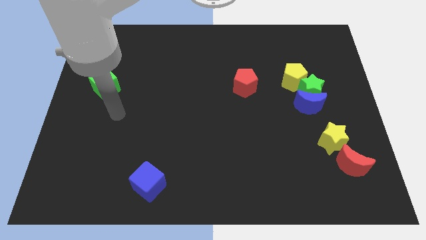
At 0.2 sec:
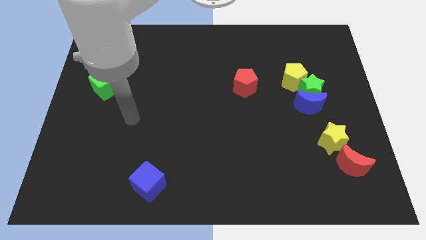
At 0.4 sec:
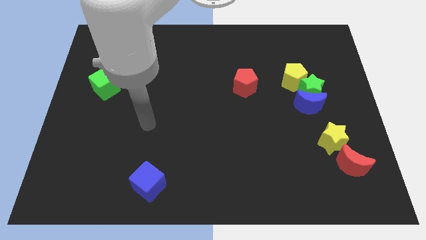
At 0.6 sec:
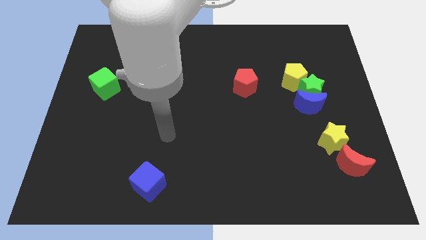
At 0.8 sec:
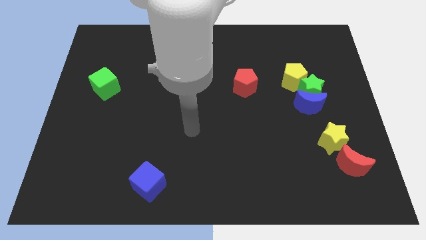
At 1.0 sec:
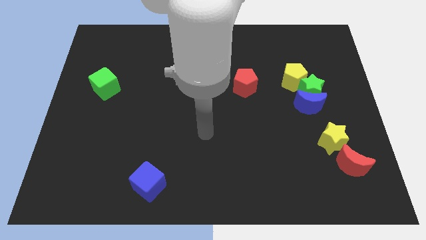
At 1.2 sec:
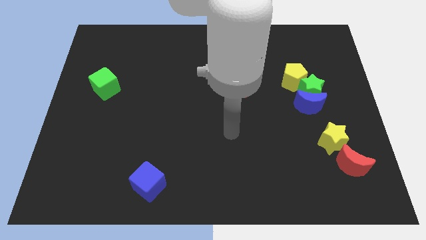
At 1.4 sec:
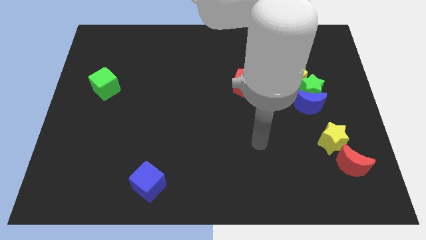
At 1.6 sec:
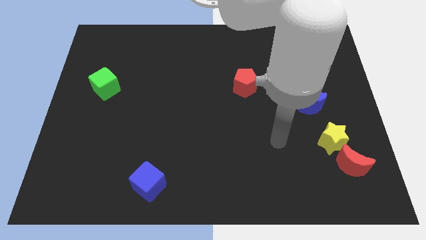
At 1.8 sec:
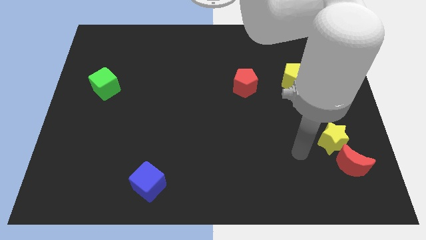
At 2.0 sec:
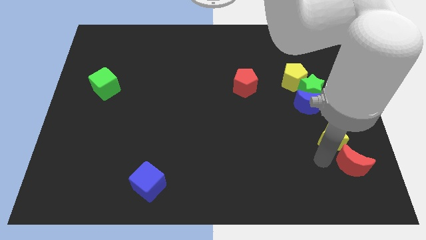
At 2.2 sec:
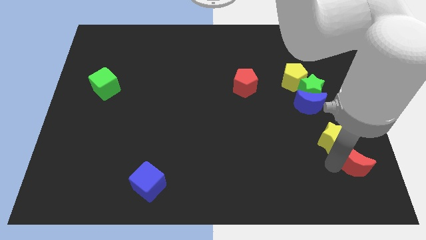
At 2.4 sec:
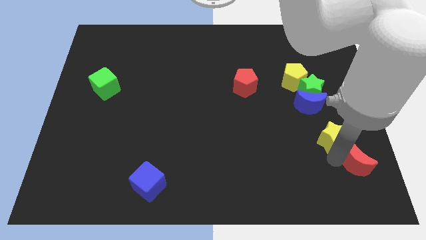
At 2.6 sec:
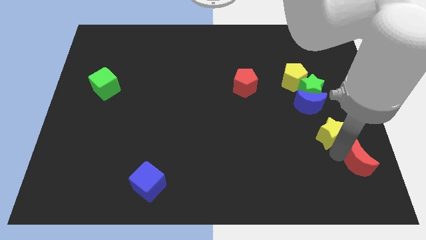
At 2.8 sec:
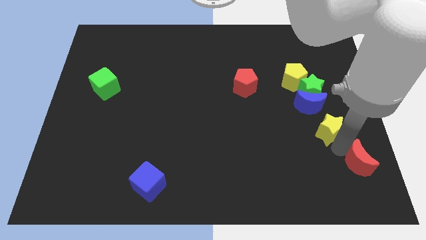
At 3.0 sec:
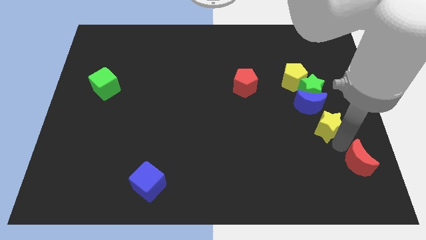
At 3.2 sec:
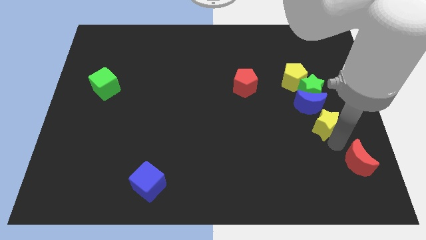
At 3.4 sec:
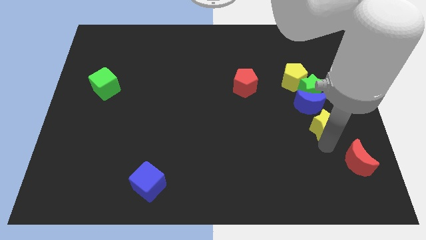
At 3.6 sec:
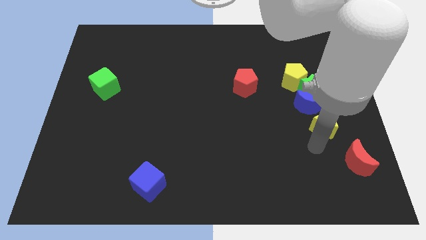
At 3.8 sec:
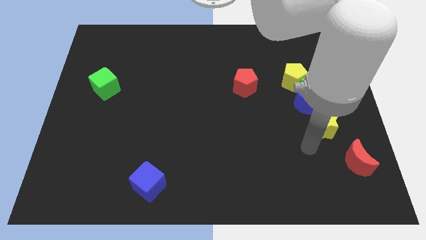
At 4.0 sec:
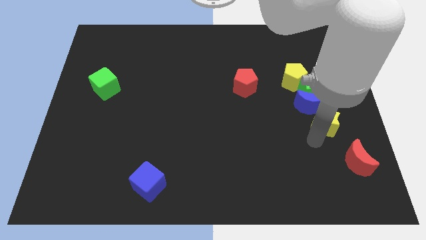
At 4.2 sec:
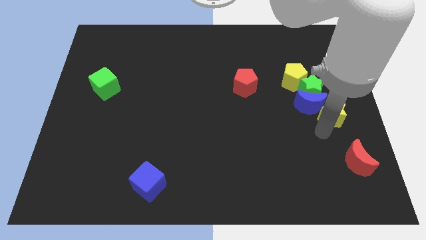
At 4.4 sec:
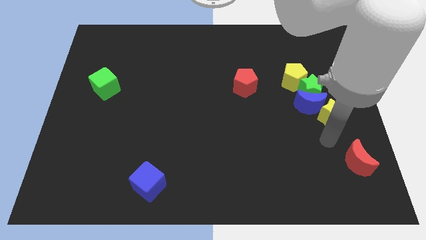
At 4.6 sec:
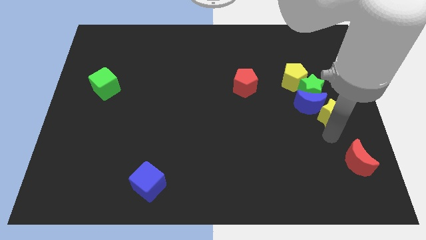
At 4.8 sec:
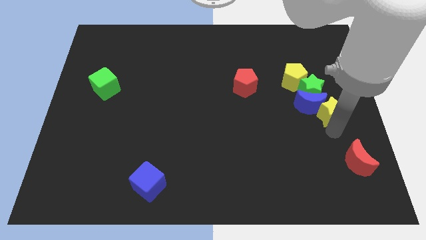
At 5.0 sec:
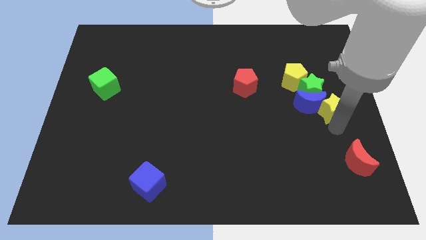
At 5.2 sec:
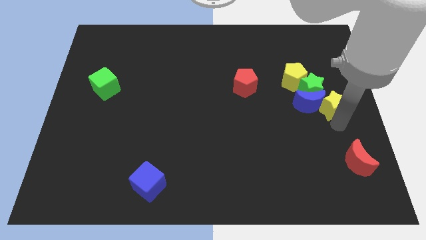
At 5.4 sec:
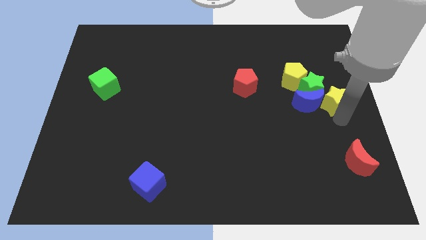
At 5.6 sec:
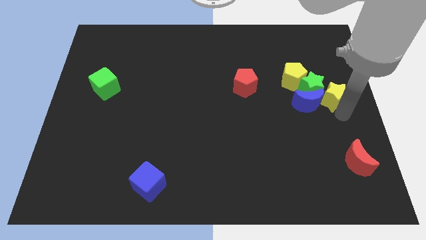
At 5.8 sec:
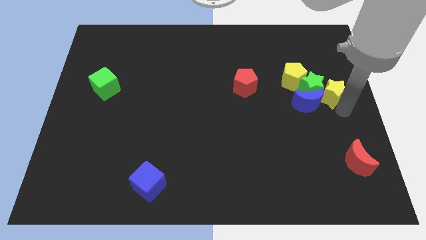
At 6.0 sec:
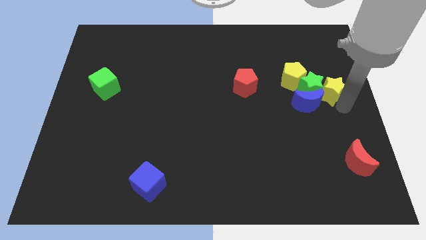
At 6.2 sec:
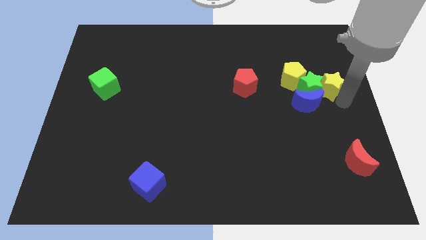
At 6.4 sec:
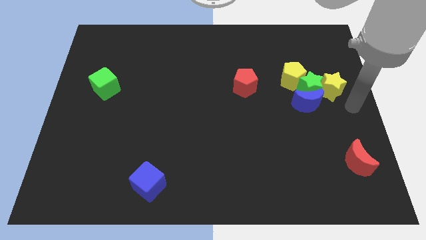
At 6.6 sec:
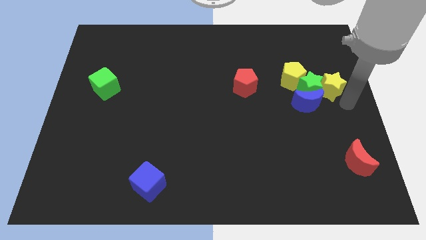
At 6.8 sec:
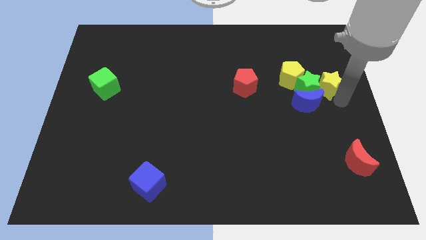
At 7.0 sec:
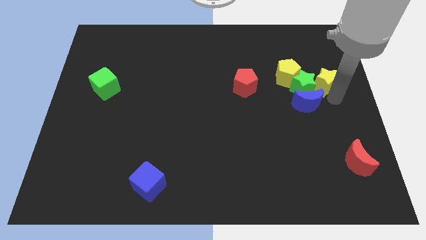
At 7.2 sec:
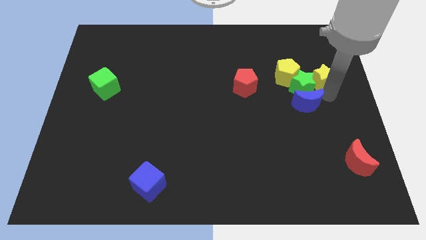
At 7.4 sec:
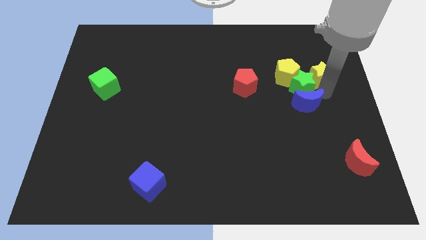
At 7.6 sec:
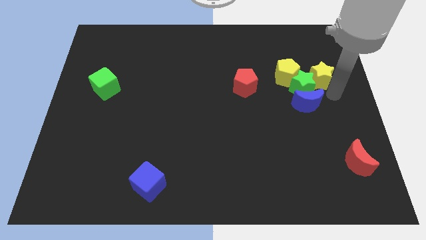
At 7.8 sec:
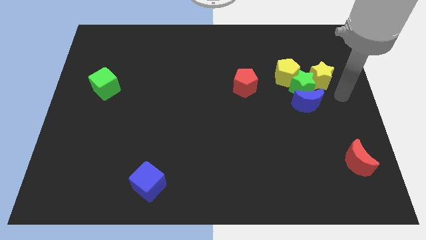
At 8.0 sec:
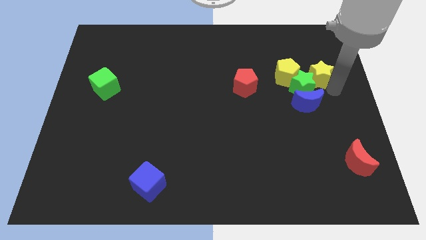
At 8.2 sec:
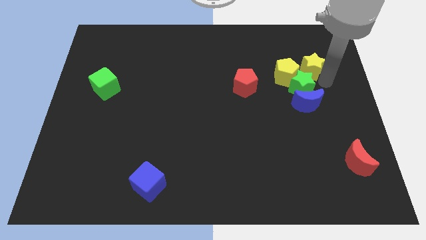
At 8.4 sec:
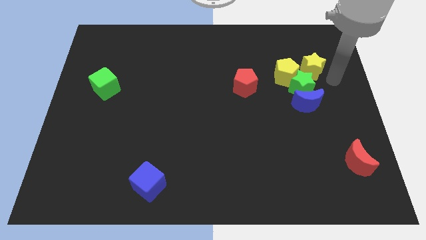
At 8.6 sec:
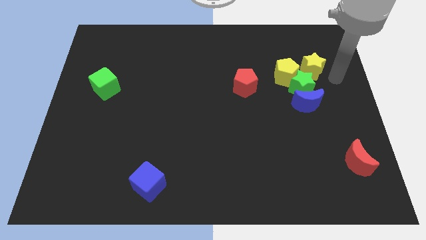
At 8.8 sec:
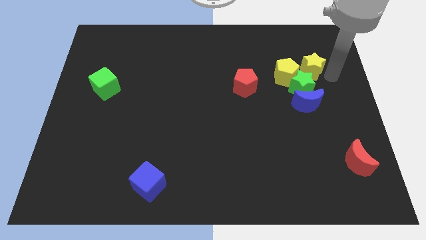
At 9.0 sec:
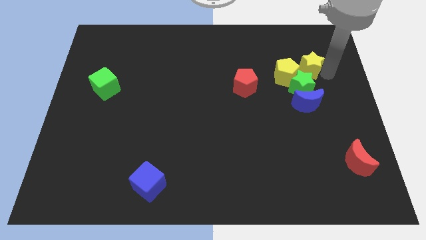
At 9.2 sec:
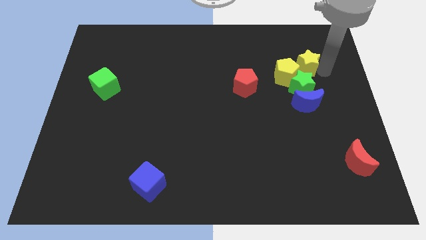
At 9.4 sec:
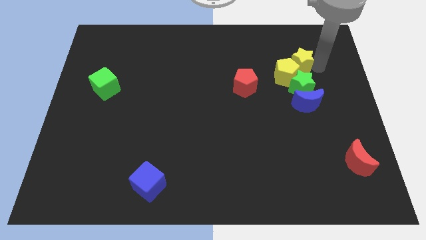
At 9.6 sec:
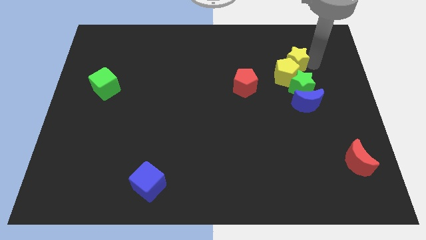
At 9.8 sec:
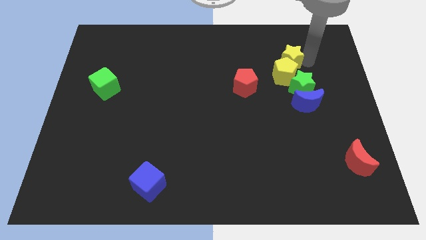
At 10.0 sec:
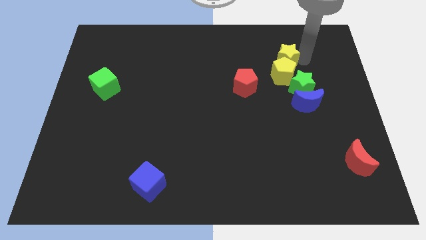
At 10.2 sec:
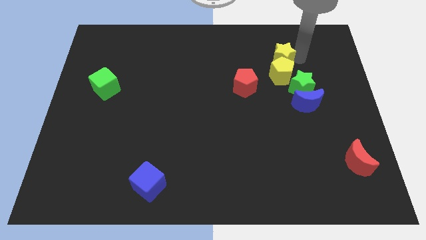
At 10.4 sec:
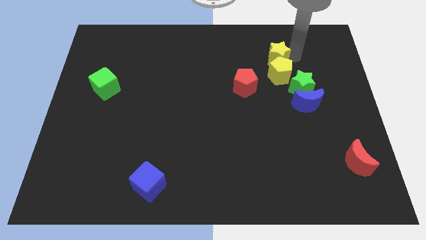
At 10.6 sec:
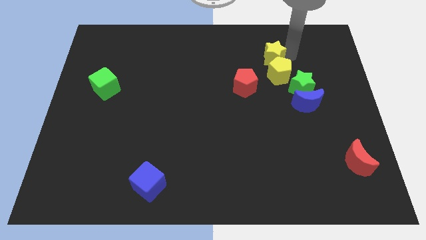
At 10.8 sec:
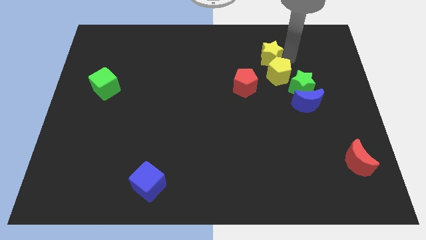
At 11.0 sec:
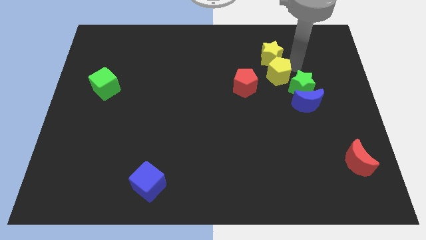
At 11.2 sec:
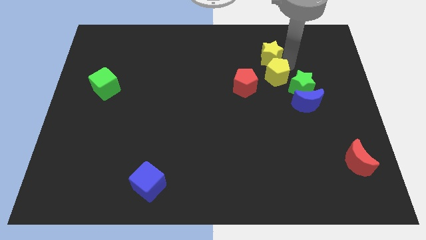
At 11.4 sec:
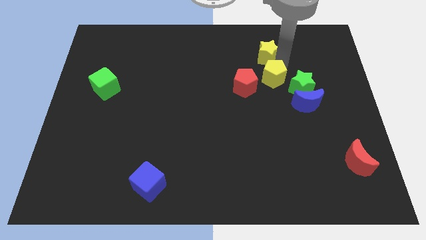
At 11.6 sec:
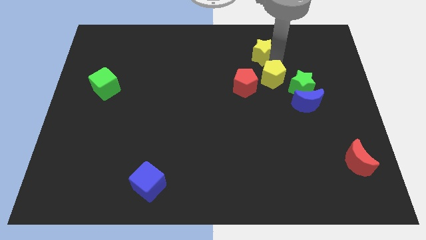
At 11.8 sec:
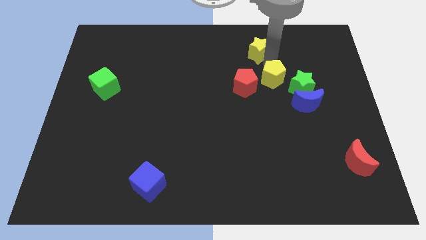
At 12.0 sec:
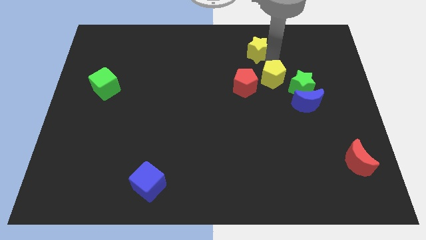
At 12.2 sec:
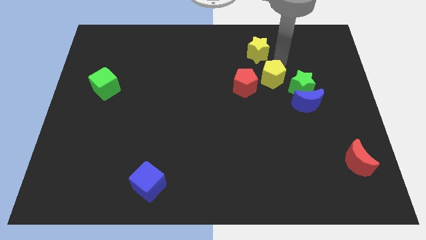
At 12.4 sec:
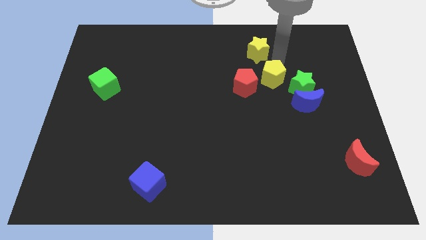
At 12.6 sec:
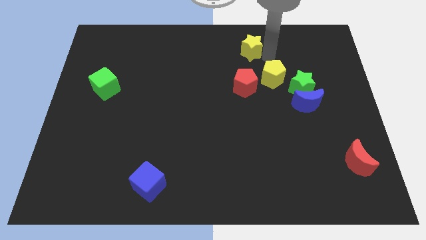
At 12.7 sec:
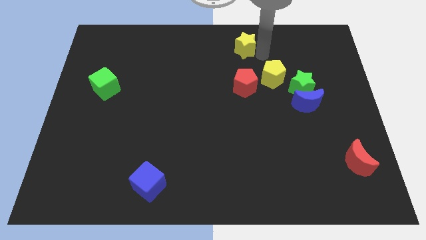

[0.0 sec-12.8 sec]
slide the yellow star to the top

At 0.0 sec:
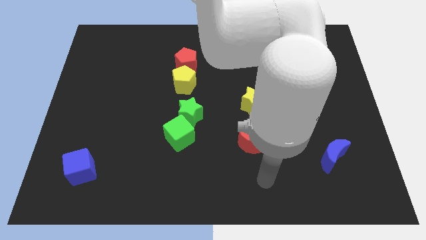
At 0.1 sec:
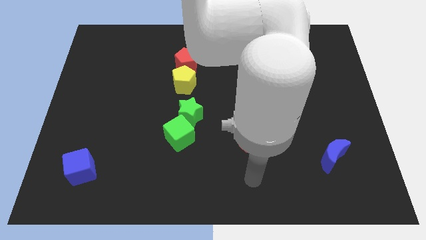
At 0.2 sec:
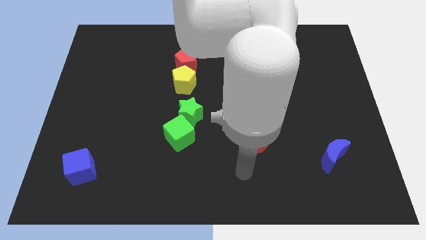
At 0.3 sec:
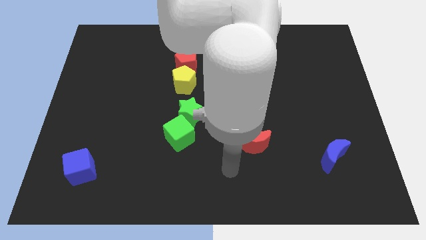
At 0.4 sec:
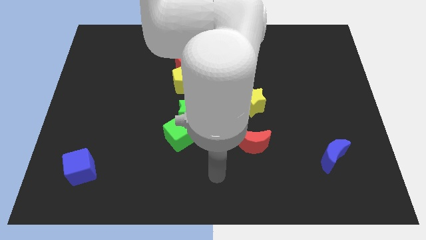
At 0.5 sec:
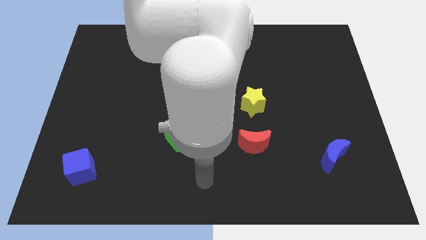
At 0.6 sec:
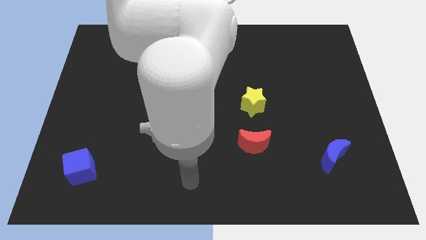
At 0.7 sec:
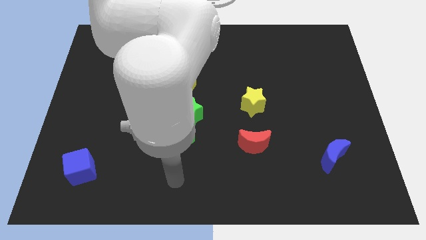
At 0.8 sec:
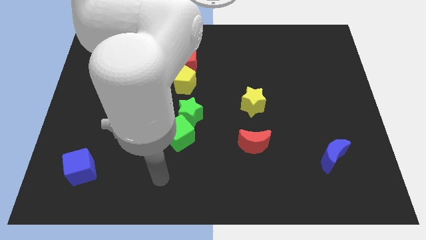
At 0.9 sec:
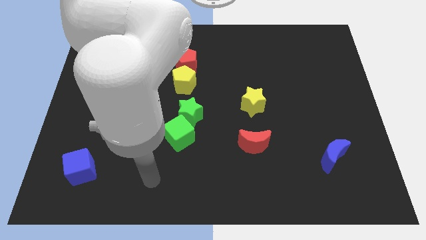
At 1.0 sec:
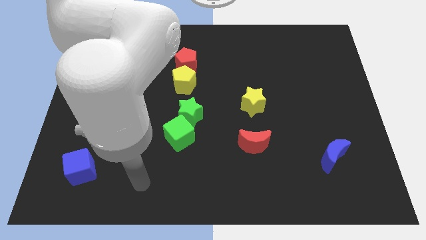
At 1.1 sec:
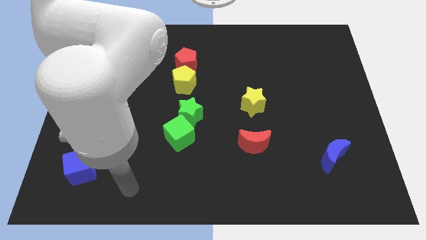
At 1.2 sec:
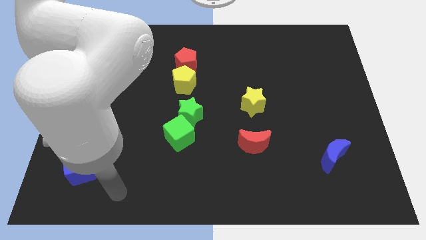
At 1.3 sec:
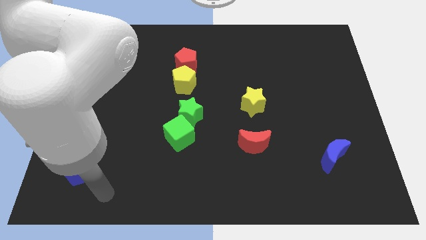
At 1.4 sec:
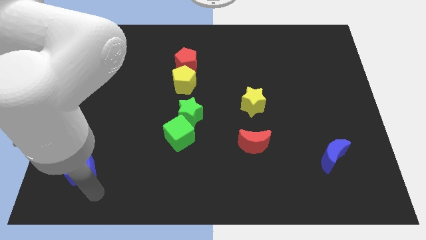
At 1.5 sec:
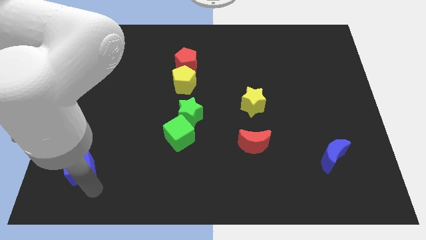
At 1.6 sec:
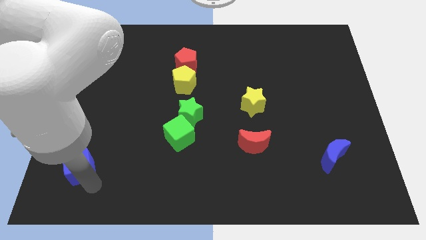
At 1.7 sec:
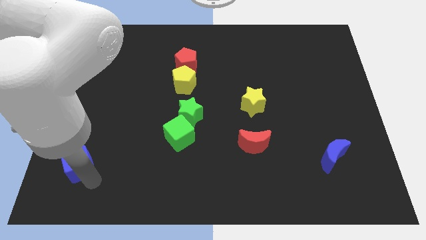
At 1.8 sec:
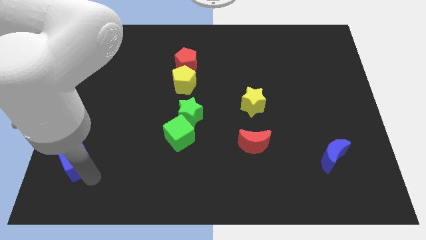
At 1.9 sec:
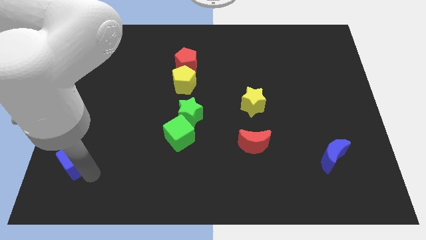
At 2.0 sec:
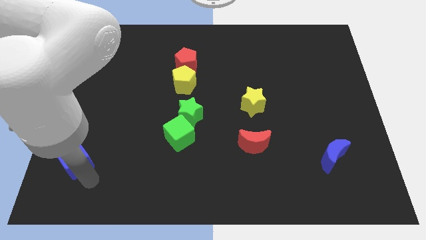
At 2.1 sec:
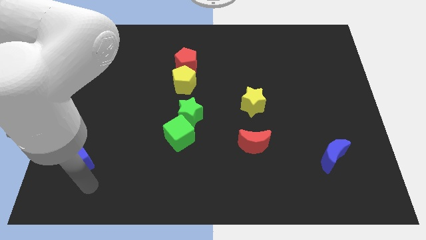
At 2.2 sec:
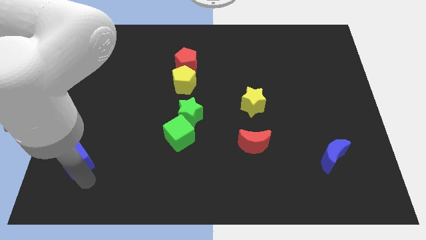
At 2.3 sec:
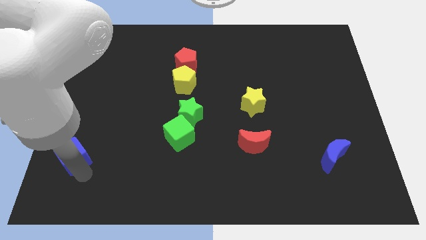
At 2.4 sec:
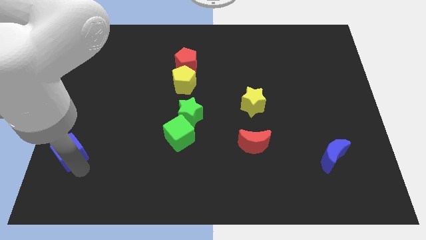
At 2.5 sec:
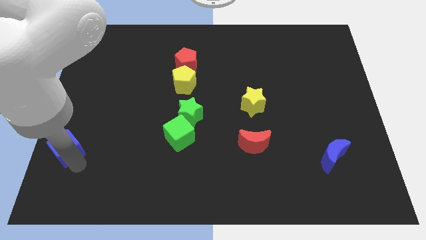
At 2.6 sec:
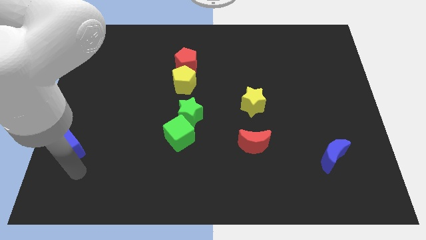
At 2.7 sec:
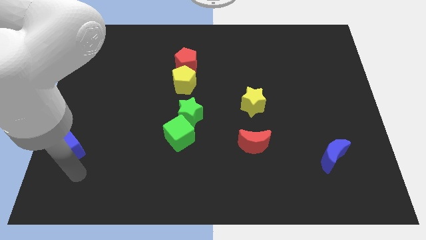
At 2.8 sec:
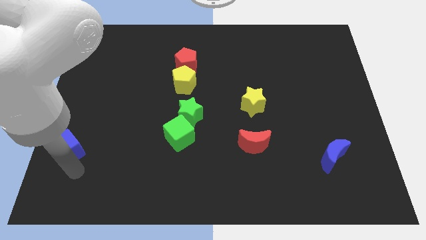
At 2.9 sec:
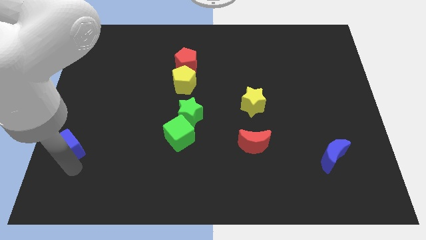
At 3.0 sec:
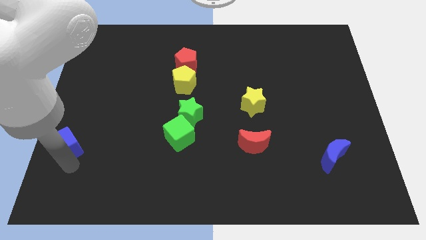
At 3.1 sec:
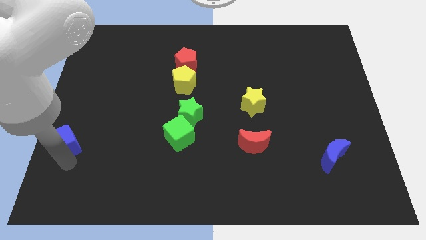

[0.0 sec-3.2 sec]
slide the blue cube to the center left
